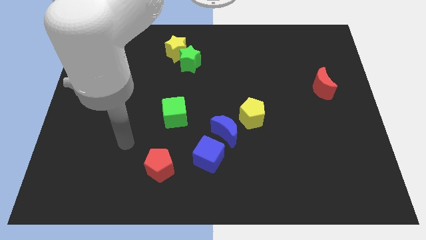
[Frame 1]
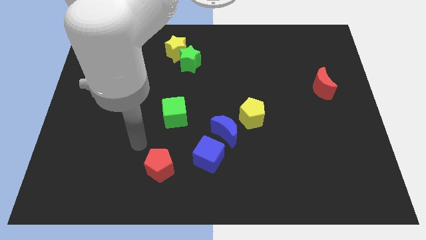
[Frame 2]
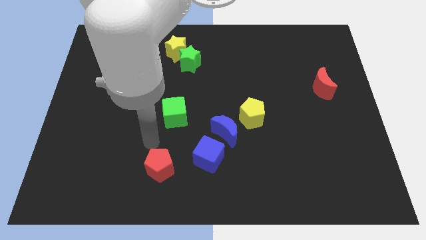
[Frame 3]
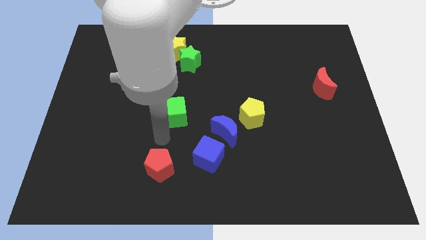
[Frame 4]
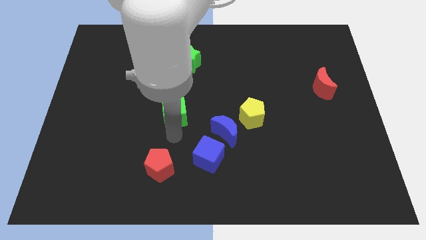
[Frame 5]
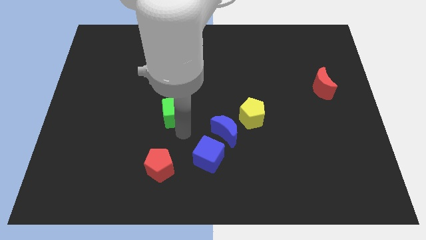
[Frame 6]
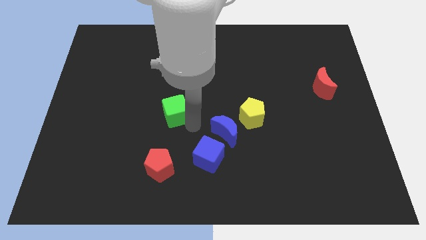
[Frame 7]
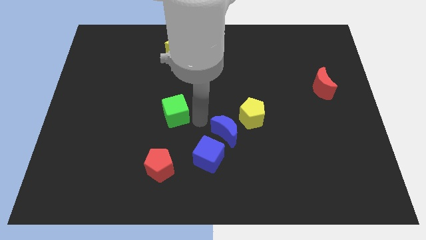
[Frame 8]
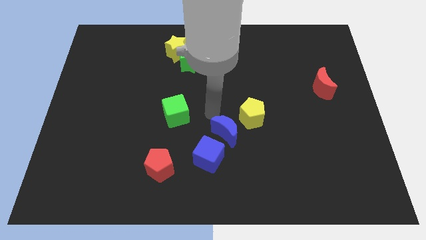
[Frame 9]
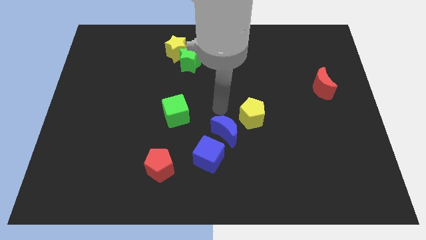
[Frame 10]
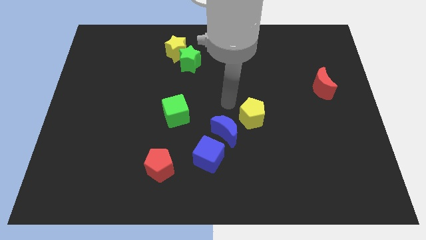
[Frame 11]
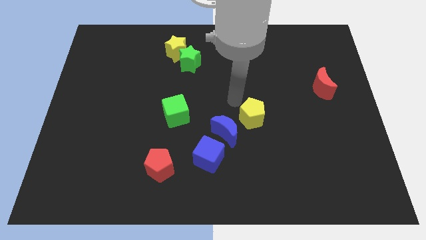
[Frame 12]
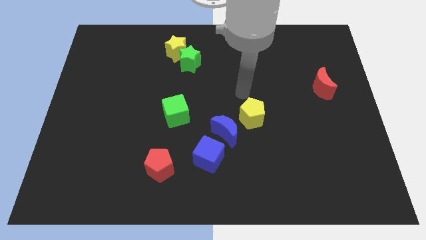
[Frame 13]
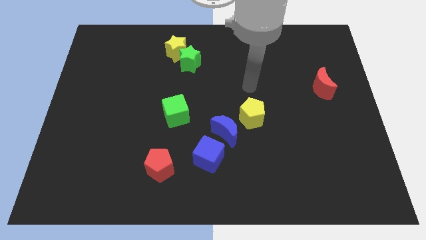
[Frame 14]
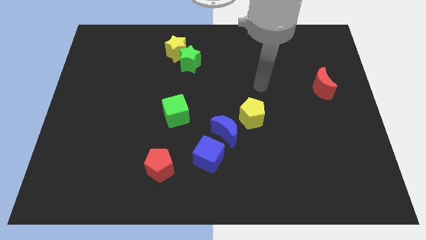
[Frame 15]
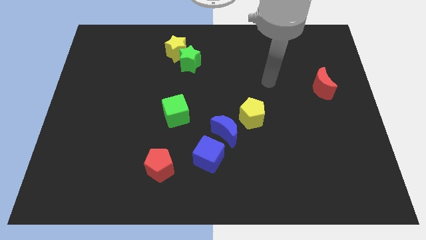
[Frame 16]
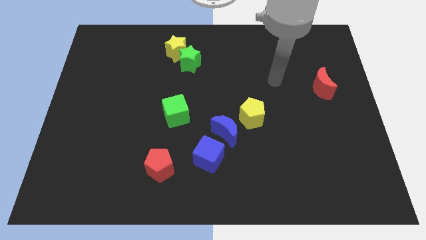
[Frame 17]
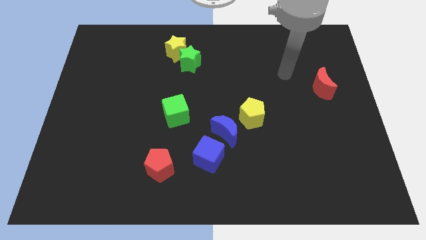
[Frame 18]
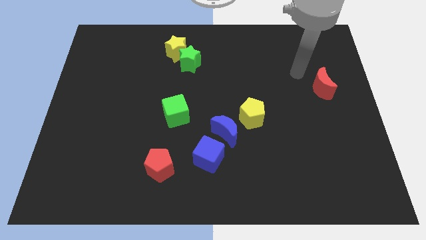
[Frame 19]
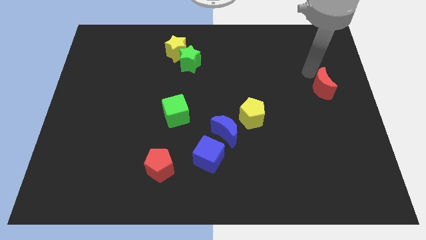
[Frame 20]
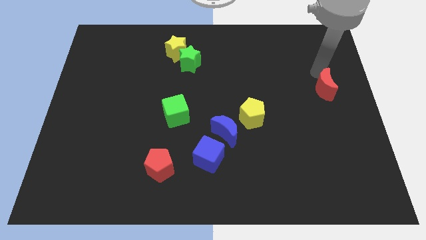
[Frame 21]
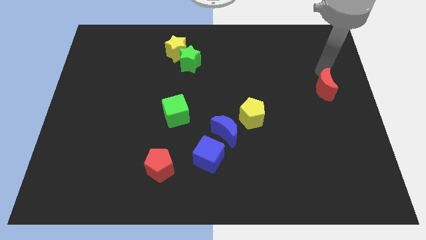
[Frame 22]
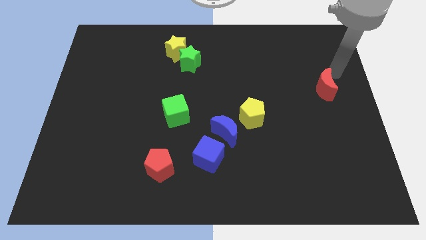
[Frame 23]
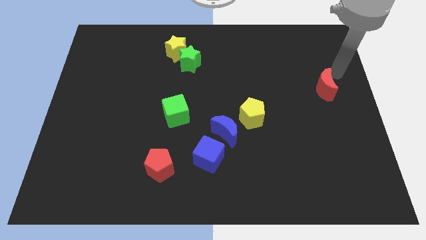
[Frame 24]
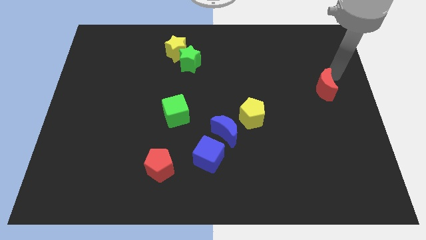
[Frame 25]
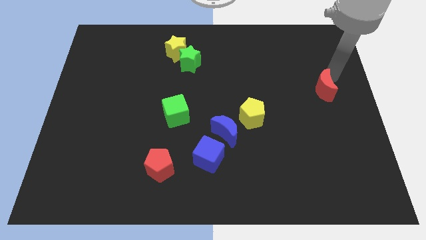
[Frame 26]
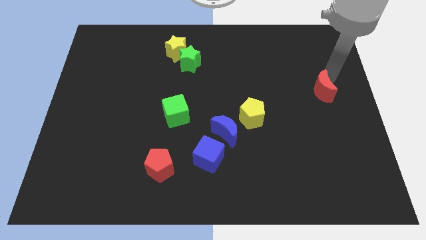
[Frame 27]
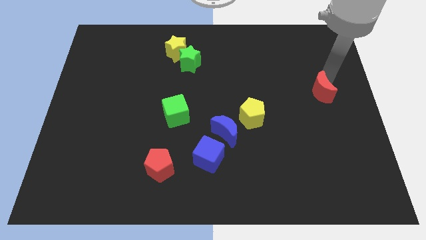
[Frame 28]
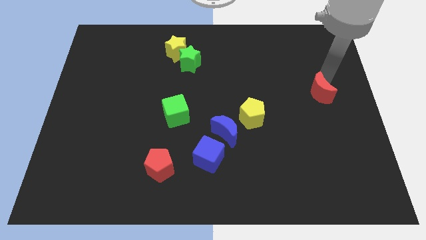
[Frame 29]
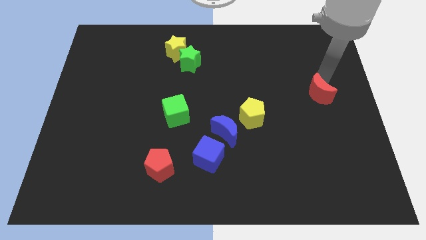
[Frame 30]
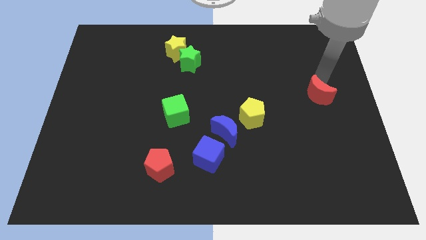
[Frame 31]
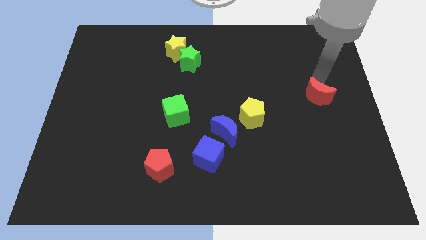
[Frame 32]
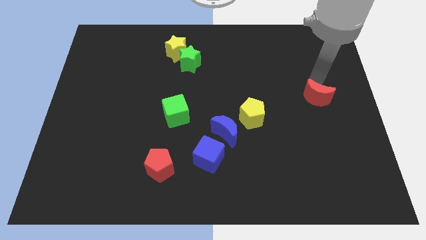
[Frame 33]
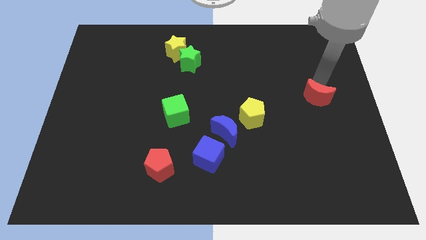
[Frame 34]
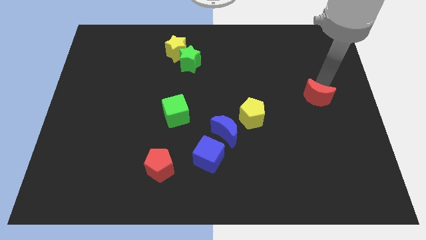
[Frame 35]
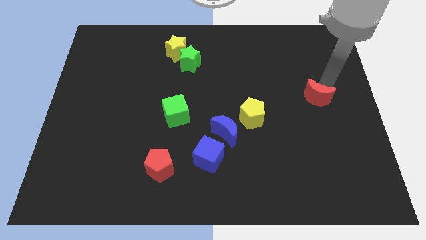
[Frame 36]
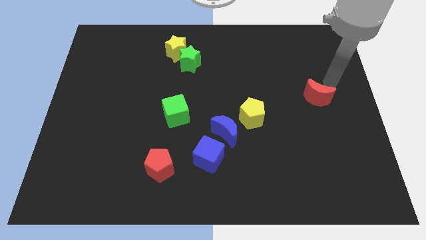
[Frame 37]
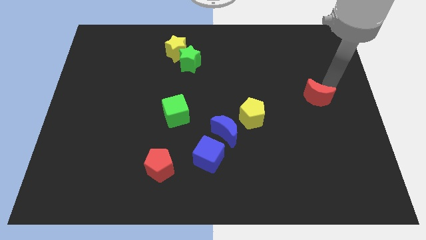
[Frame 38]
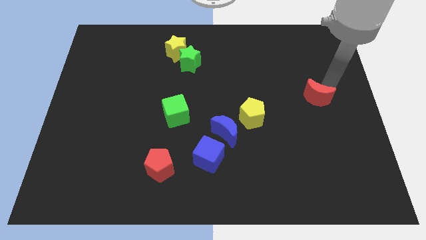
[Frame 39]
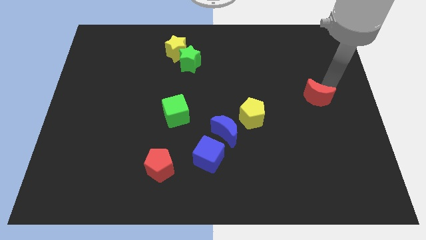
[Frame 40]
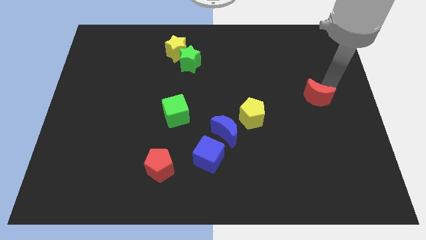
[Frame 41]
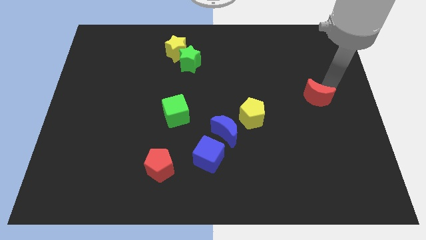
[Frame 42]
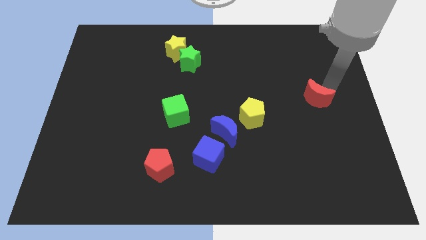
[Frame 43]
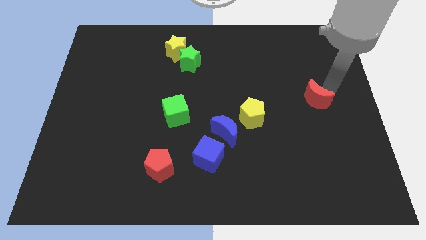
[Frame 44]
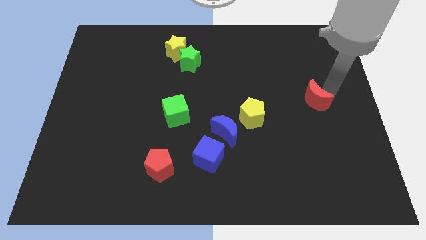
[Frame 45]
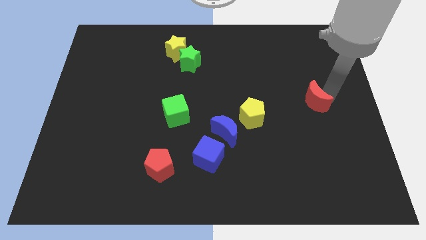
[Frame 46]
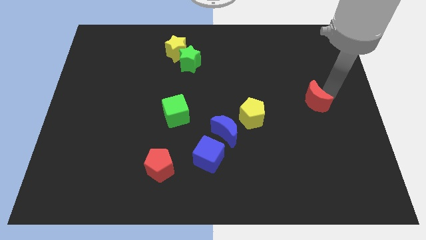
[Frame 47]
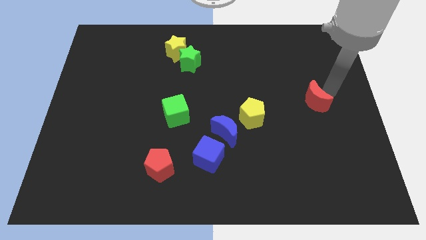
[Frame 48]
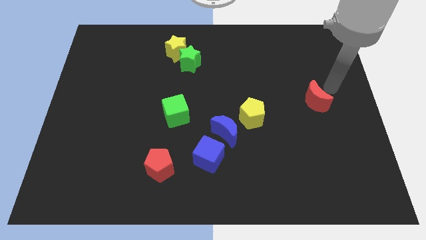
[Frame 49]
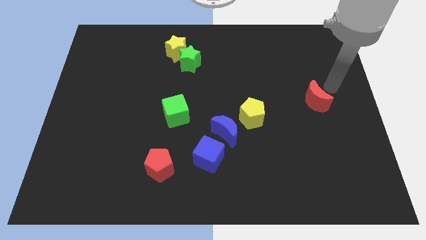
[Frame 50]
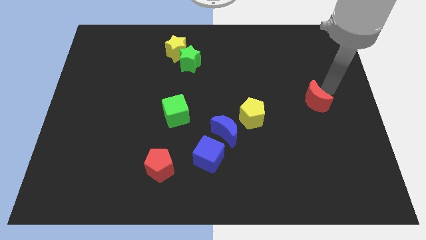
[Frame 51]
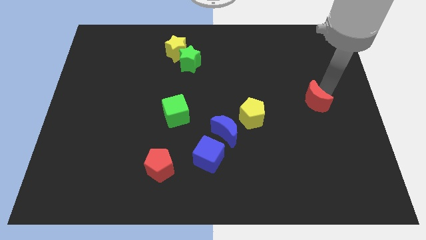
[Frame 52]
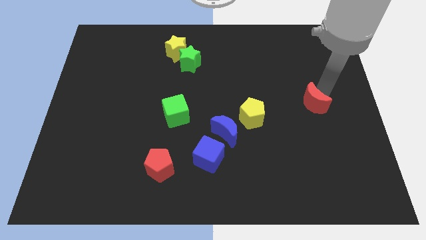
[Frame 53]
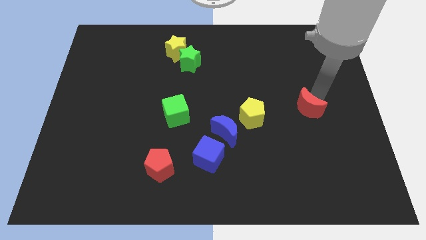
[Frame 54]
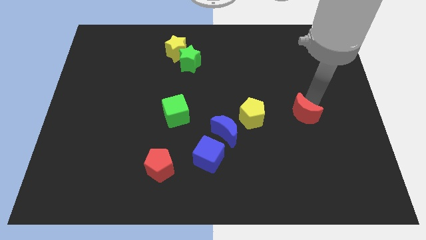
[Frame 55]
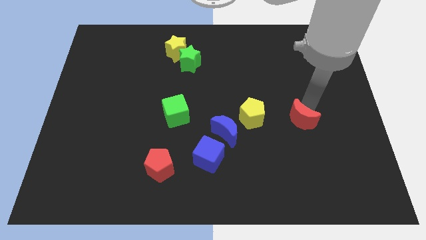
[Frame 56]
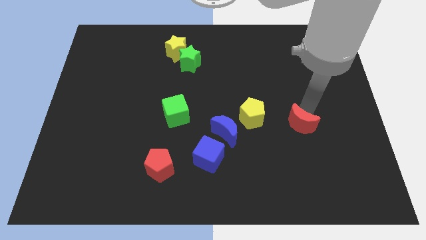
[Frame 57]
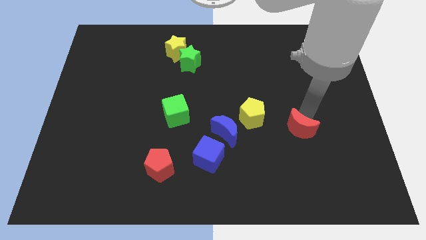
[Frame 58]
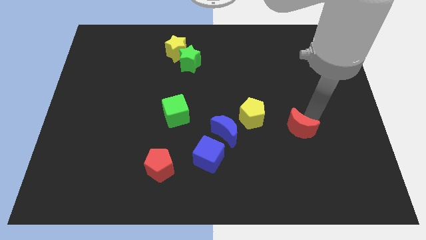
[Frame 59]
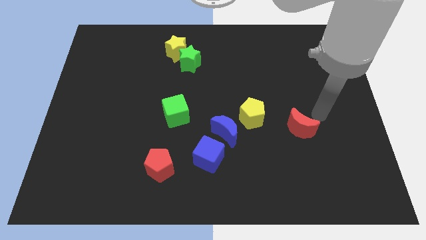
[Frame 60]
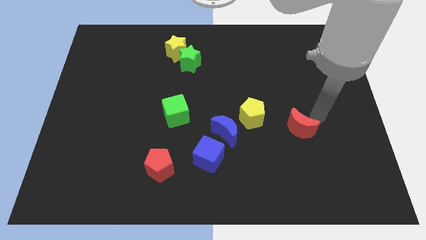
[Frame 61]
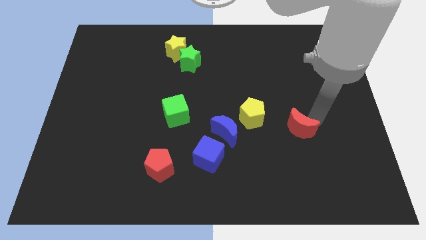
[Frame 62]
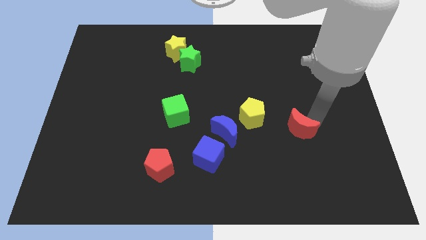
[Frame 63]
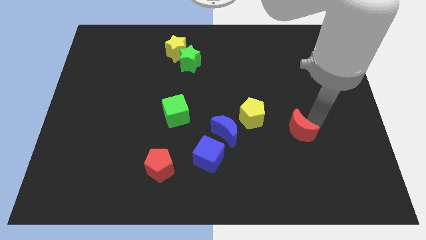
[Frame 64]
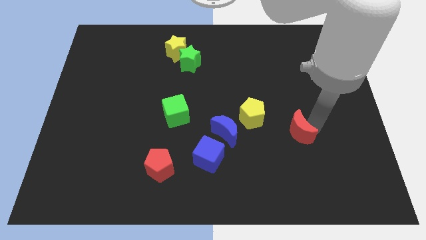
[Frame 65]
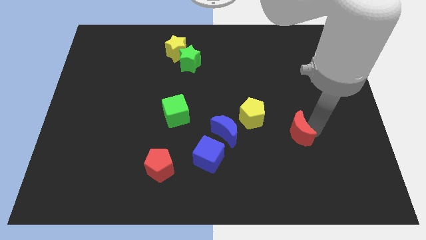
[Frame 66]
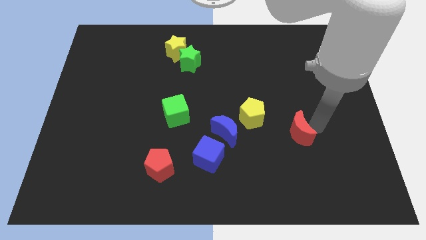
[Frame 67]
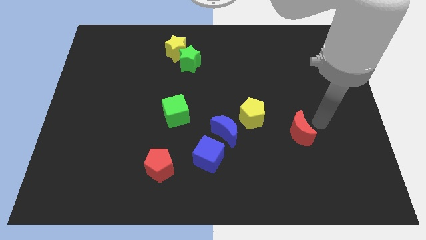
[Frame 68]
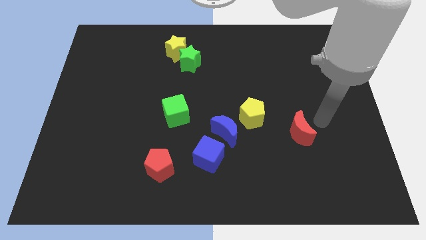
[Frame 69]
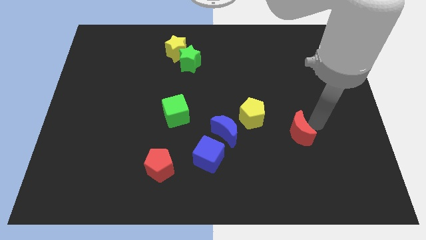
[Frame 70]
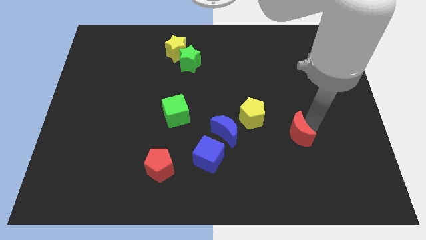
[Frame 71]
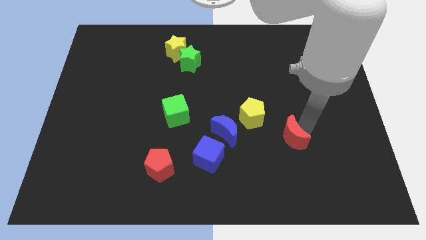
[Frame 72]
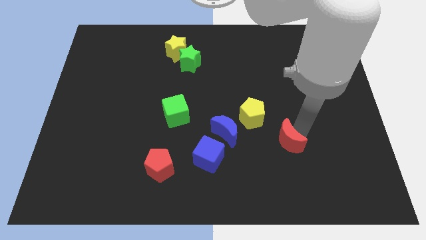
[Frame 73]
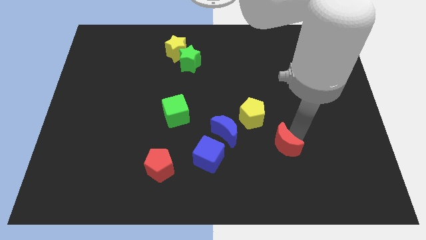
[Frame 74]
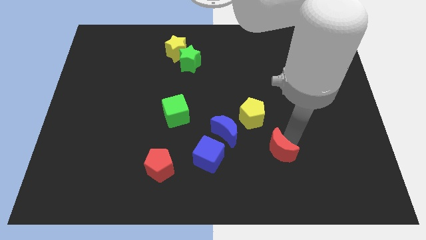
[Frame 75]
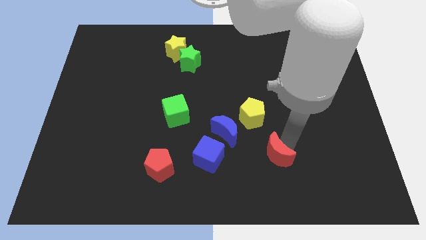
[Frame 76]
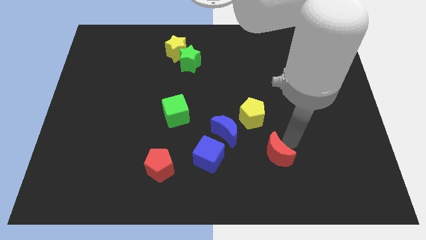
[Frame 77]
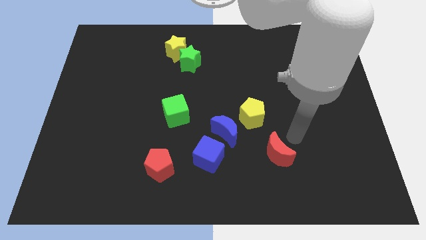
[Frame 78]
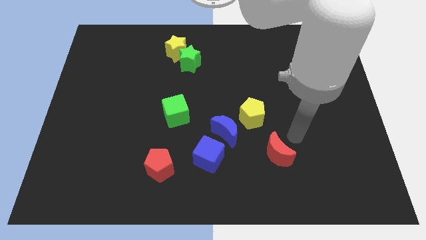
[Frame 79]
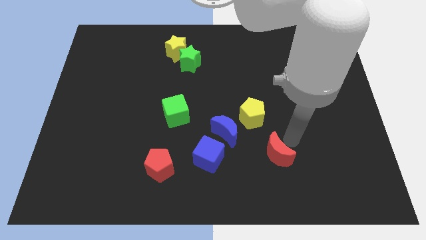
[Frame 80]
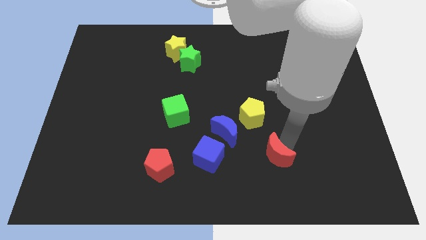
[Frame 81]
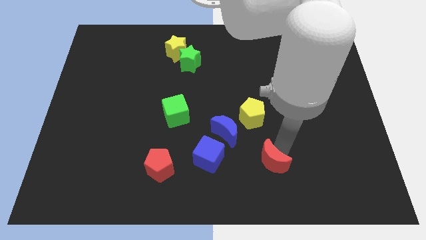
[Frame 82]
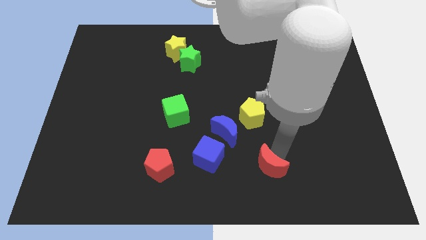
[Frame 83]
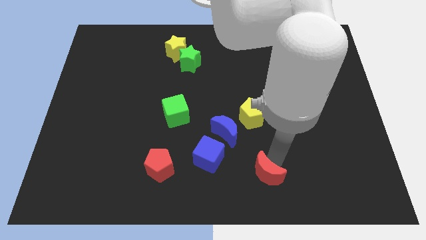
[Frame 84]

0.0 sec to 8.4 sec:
push the red moon to the bottom side
